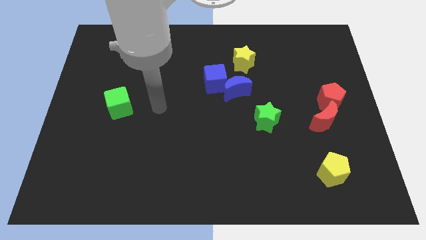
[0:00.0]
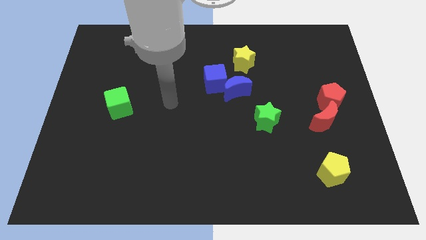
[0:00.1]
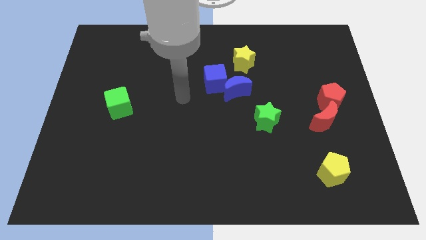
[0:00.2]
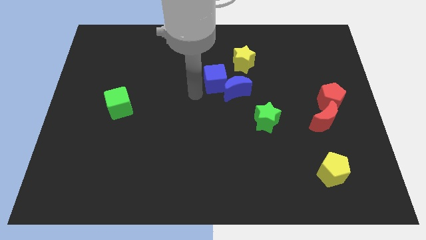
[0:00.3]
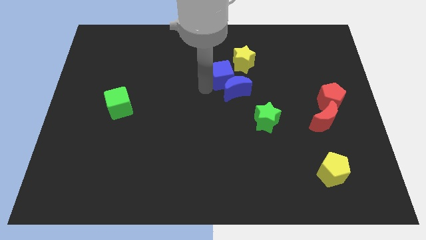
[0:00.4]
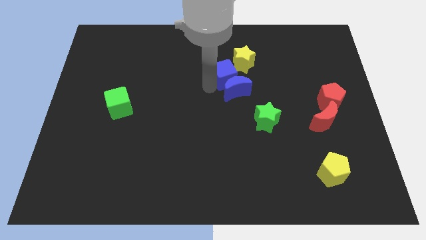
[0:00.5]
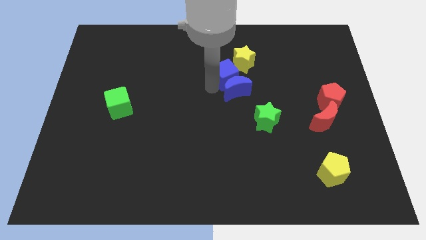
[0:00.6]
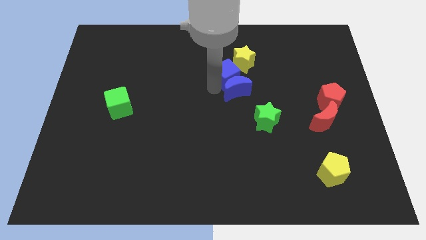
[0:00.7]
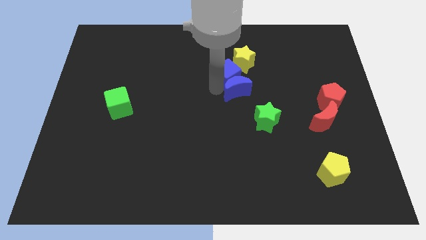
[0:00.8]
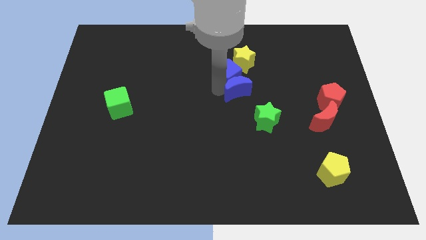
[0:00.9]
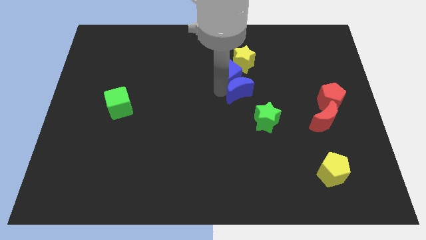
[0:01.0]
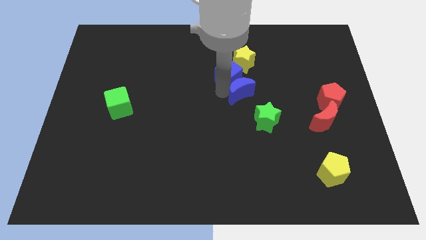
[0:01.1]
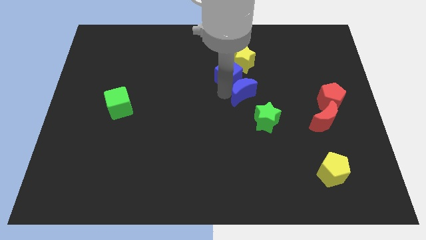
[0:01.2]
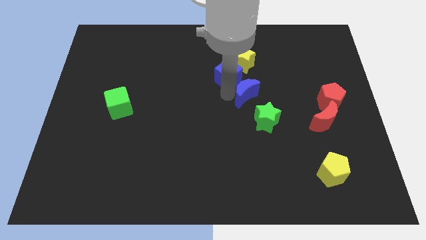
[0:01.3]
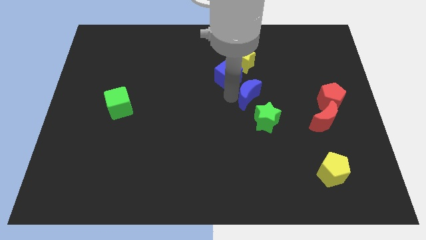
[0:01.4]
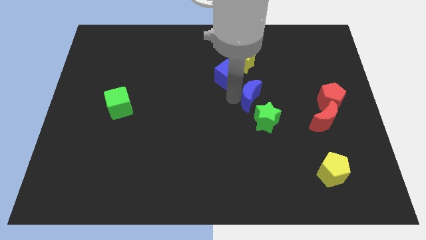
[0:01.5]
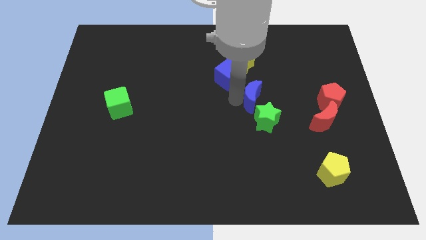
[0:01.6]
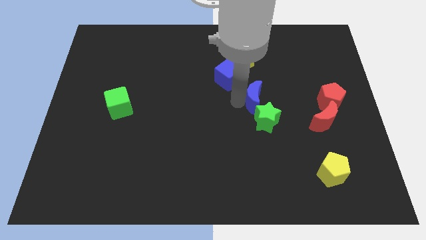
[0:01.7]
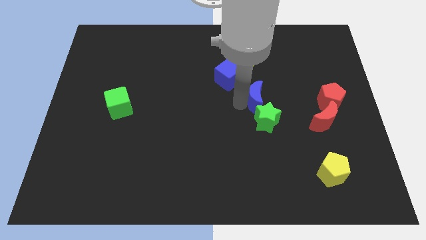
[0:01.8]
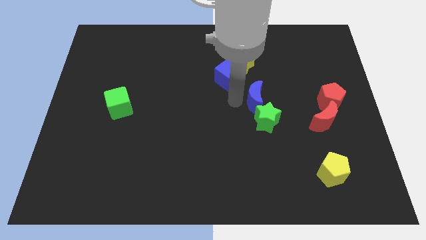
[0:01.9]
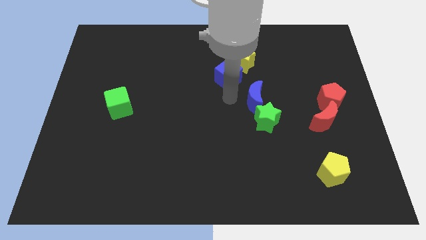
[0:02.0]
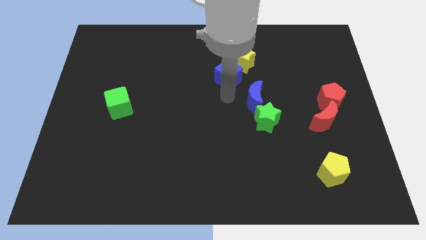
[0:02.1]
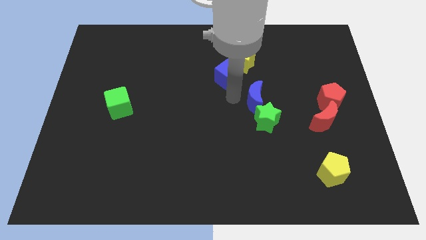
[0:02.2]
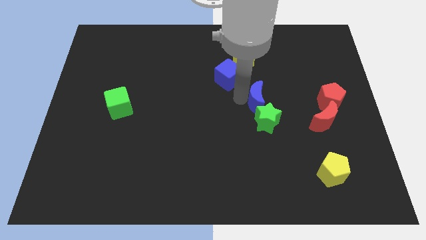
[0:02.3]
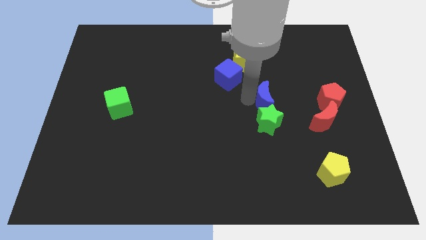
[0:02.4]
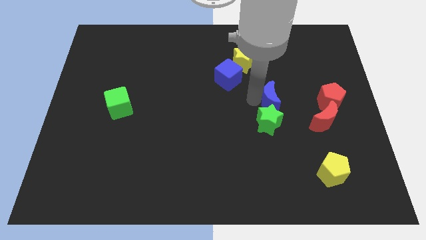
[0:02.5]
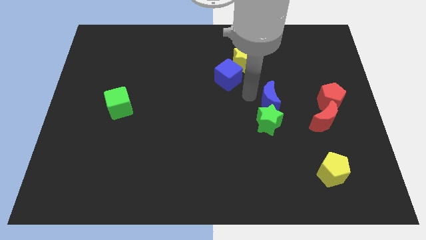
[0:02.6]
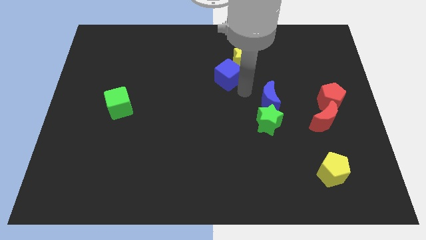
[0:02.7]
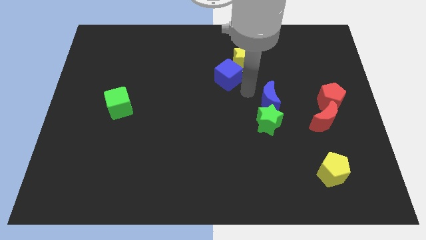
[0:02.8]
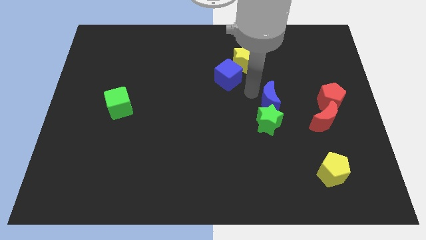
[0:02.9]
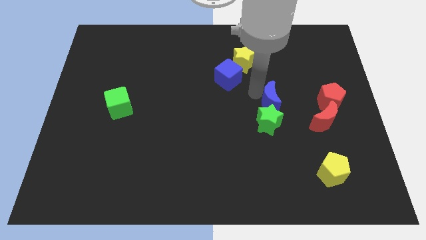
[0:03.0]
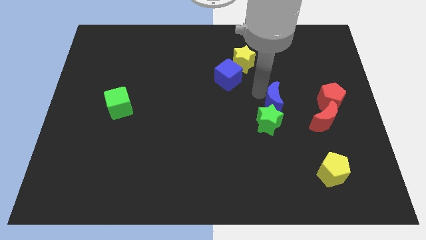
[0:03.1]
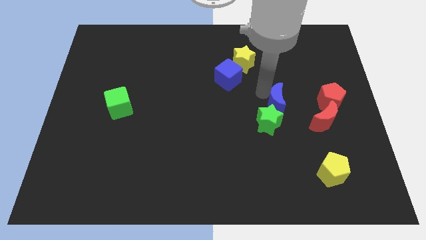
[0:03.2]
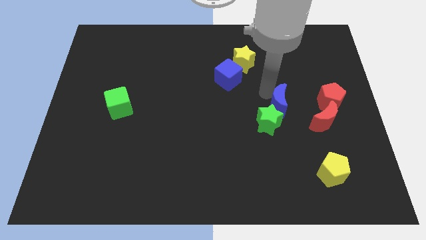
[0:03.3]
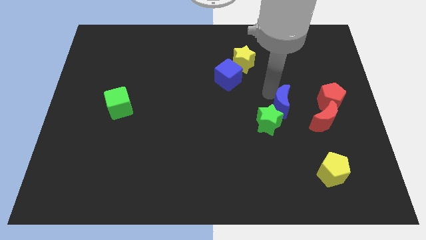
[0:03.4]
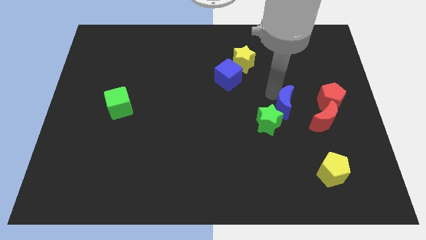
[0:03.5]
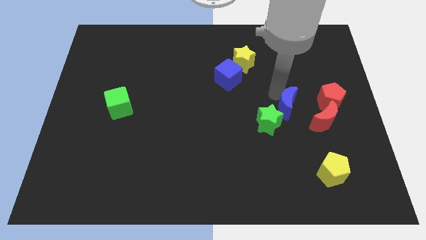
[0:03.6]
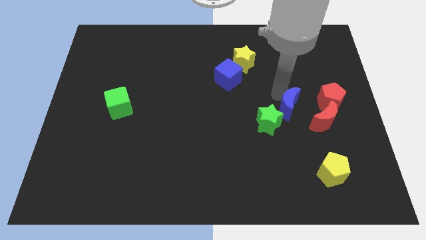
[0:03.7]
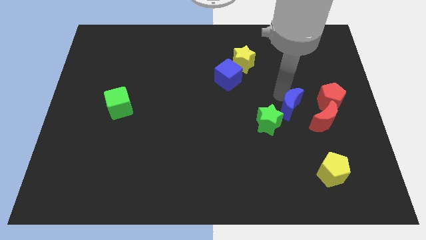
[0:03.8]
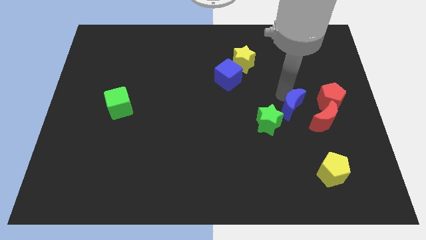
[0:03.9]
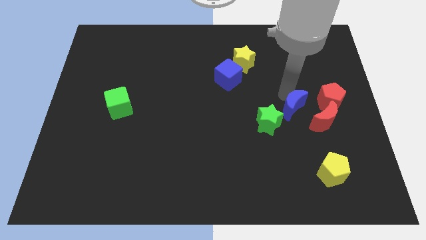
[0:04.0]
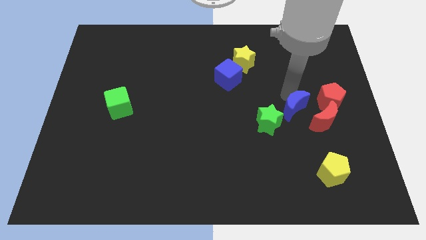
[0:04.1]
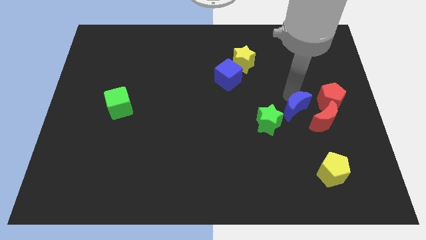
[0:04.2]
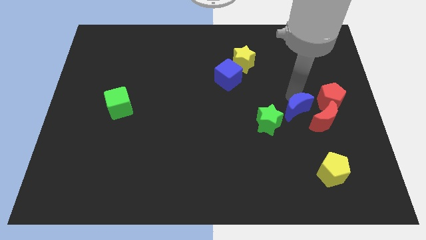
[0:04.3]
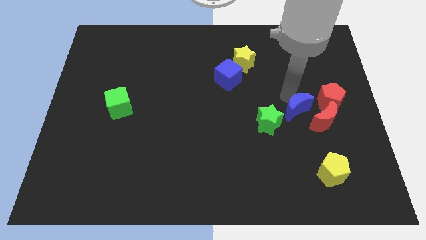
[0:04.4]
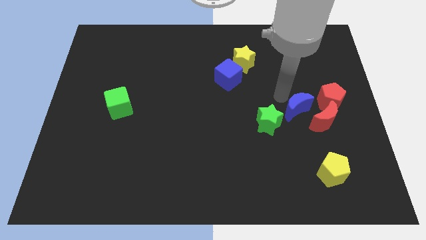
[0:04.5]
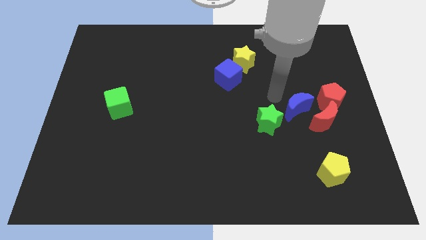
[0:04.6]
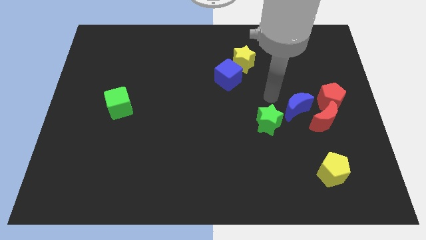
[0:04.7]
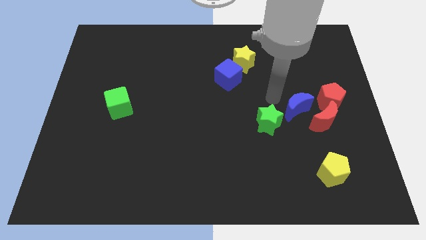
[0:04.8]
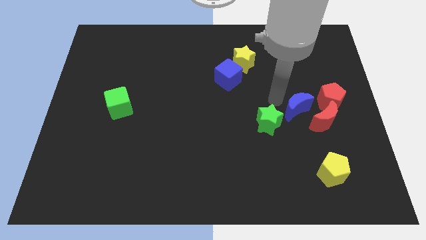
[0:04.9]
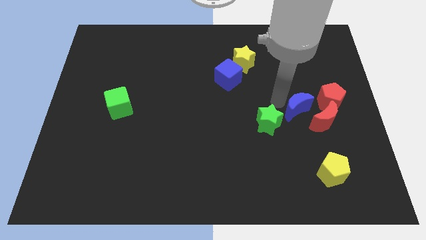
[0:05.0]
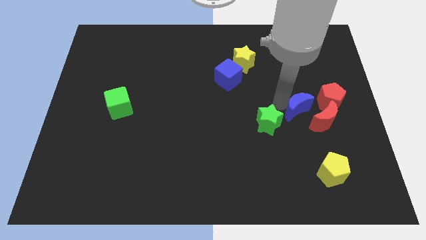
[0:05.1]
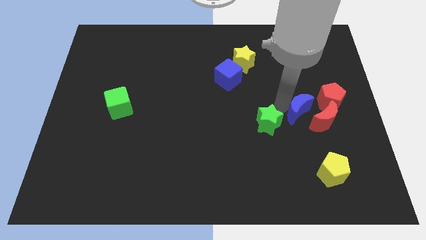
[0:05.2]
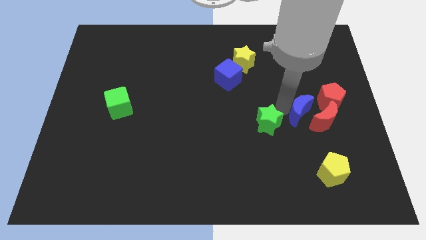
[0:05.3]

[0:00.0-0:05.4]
push the blue moon to the red moon

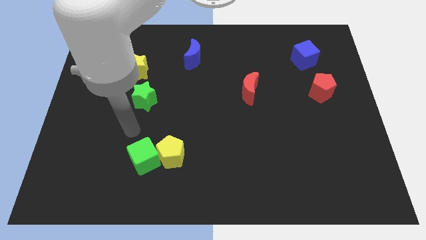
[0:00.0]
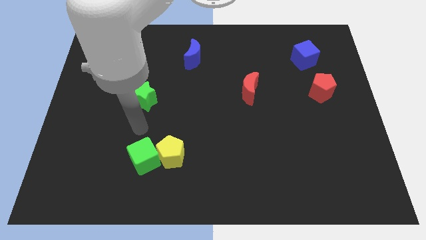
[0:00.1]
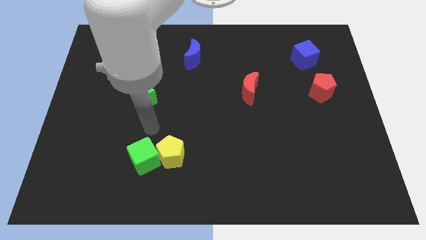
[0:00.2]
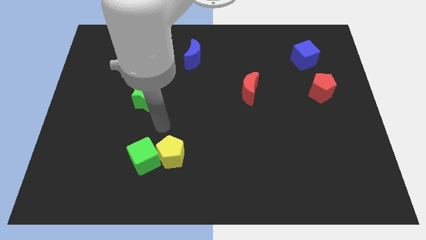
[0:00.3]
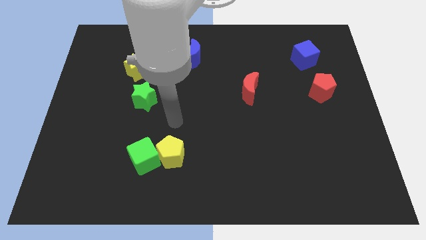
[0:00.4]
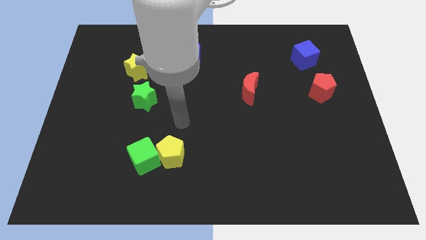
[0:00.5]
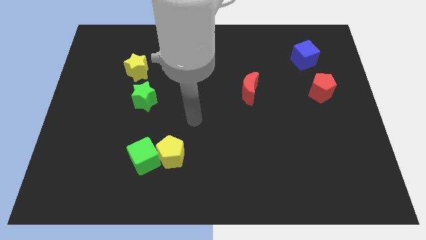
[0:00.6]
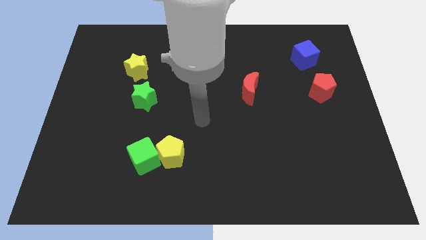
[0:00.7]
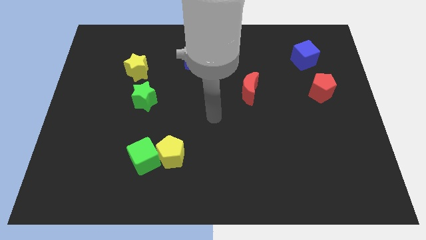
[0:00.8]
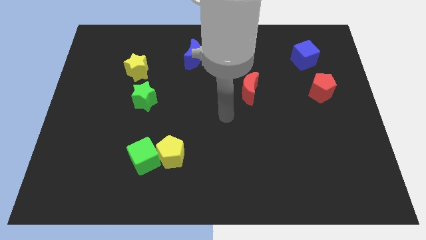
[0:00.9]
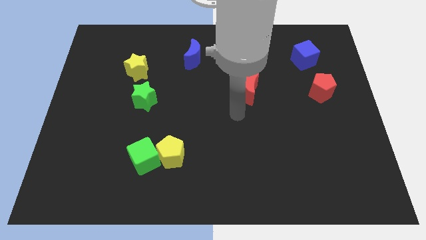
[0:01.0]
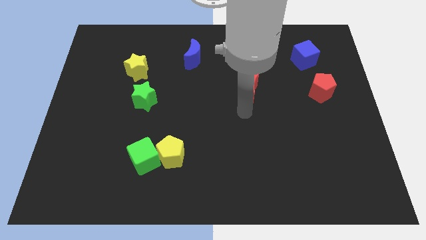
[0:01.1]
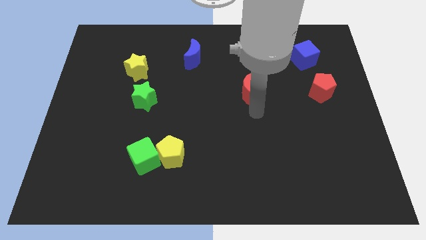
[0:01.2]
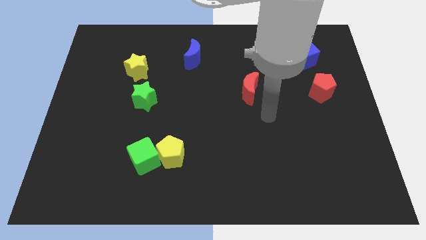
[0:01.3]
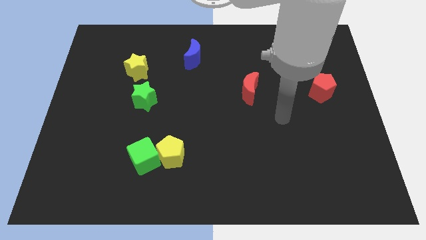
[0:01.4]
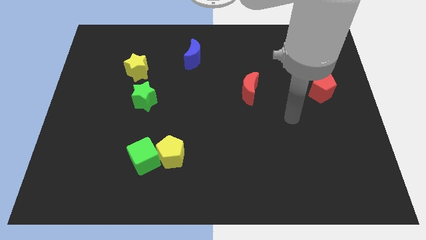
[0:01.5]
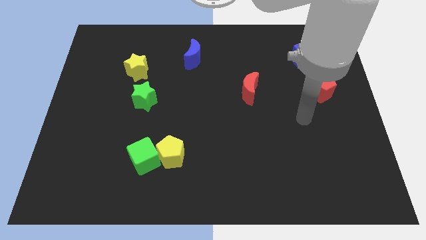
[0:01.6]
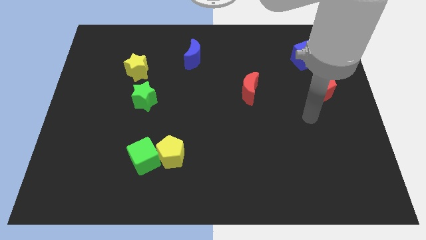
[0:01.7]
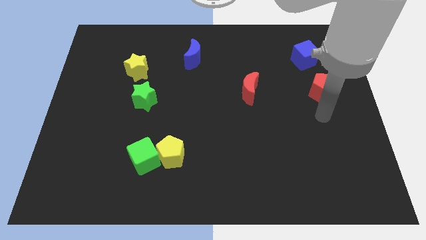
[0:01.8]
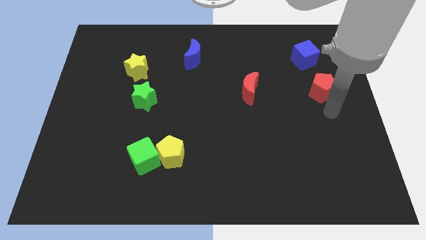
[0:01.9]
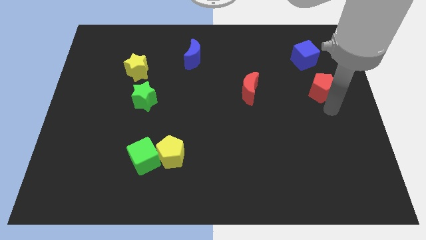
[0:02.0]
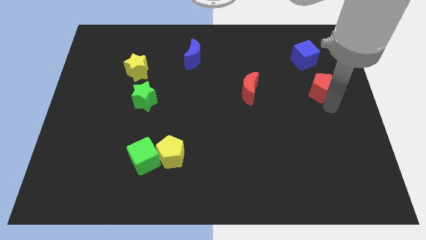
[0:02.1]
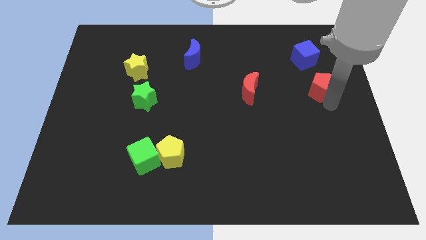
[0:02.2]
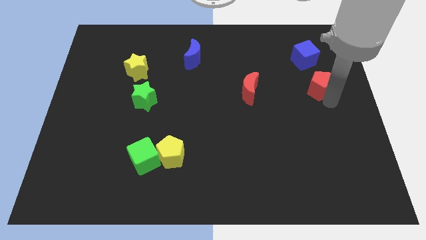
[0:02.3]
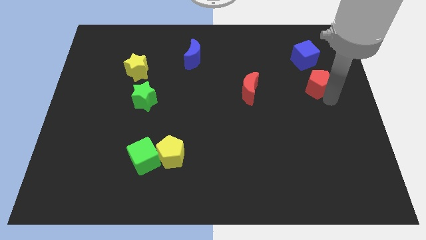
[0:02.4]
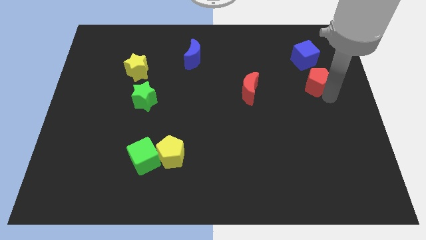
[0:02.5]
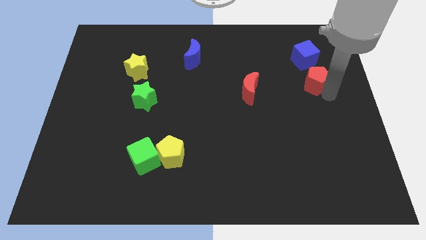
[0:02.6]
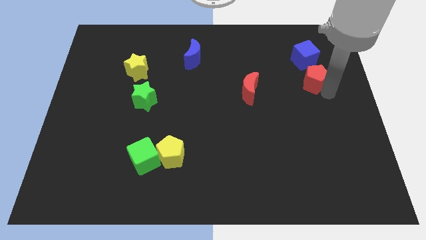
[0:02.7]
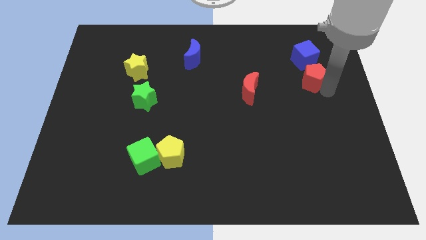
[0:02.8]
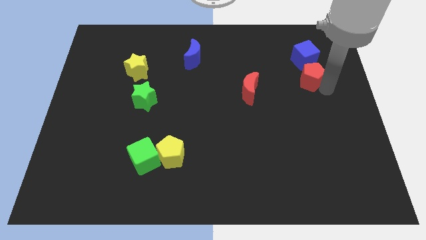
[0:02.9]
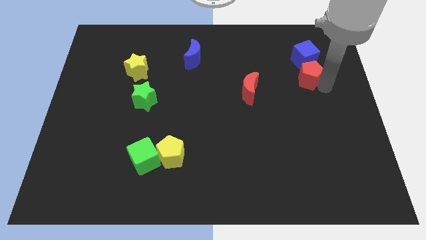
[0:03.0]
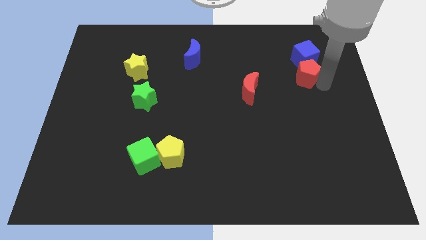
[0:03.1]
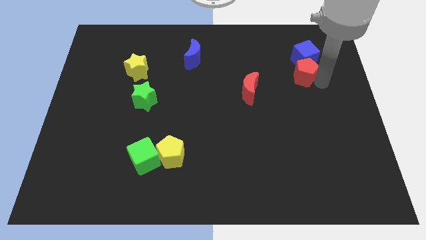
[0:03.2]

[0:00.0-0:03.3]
push the red pentagon next to the blue cube
